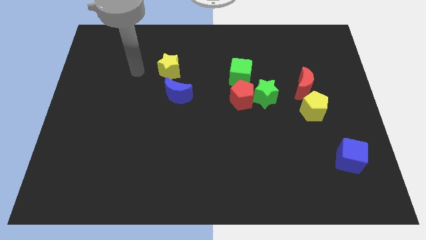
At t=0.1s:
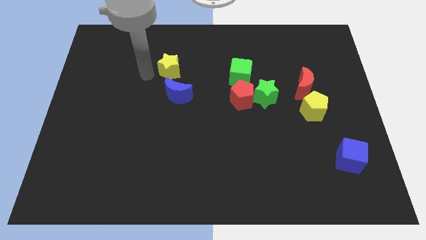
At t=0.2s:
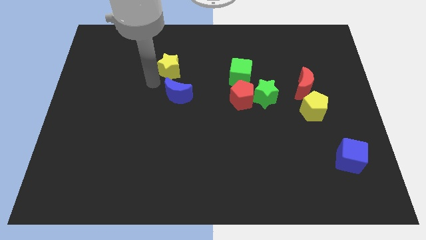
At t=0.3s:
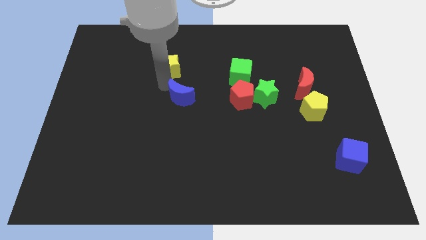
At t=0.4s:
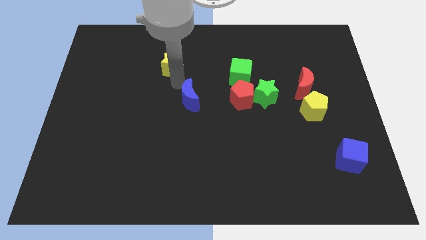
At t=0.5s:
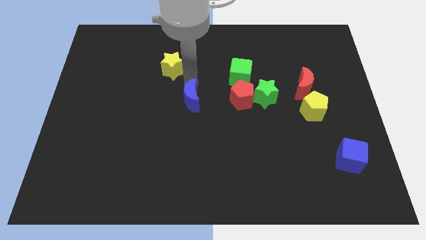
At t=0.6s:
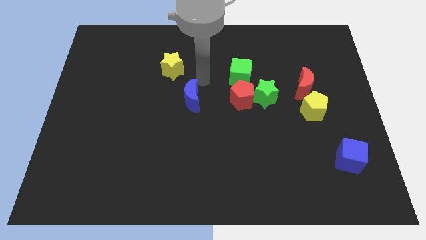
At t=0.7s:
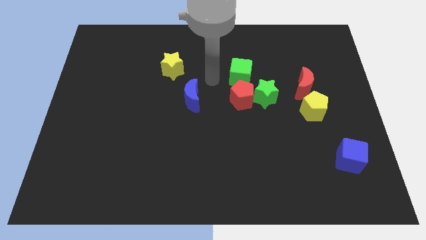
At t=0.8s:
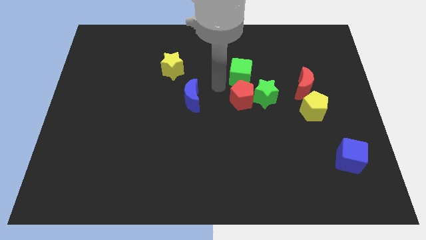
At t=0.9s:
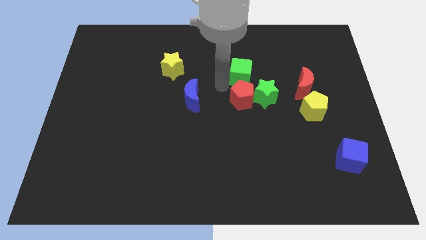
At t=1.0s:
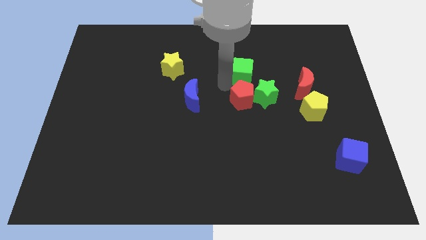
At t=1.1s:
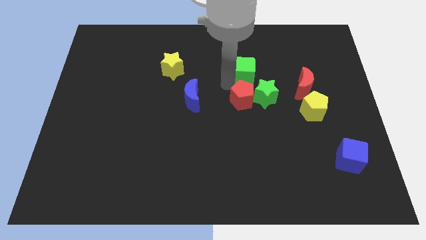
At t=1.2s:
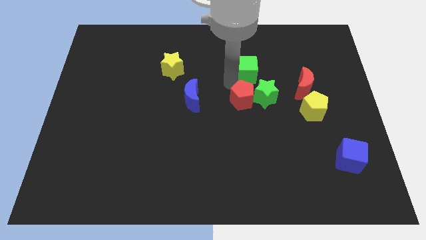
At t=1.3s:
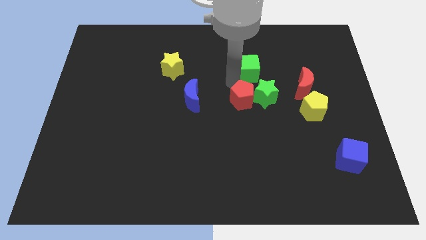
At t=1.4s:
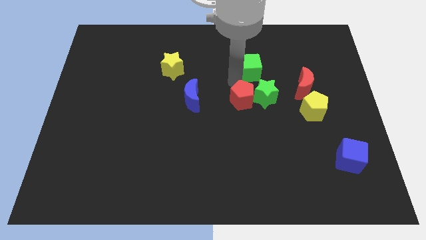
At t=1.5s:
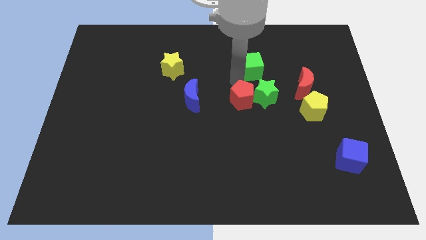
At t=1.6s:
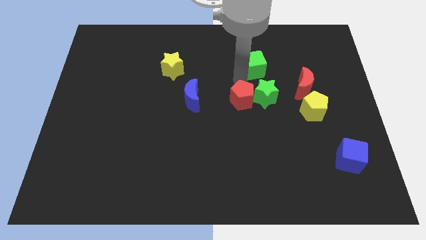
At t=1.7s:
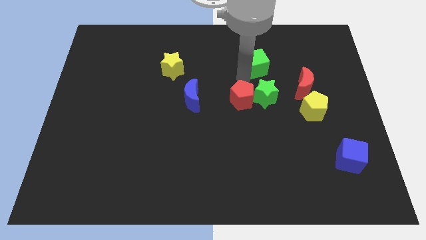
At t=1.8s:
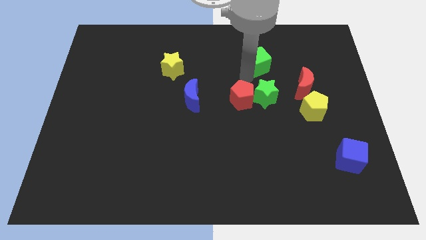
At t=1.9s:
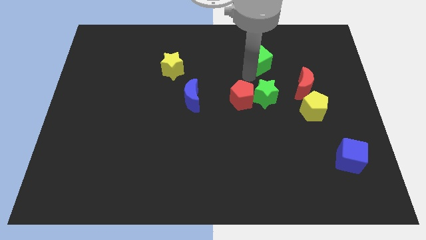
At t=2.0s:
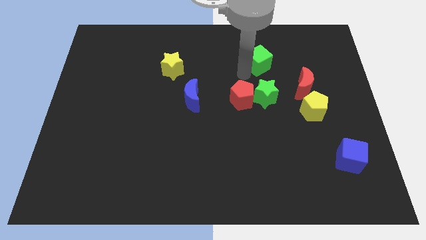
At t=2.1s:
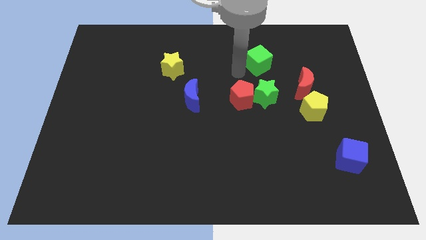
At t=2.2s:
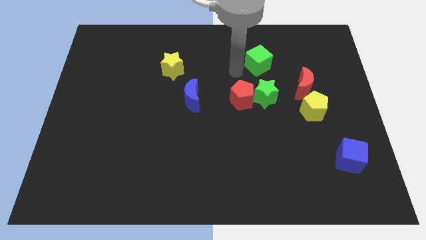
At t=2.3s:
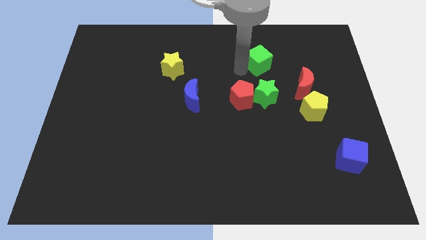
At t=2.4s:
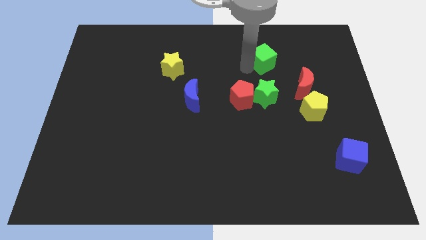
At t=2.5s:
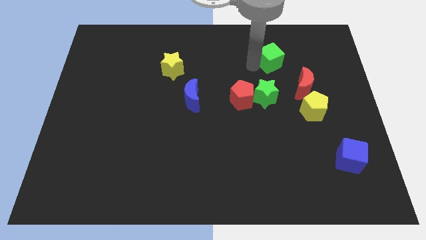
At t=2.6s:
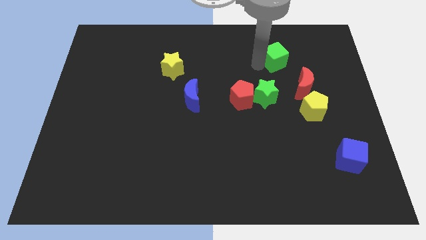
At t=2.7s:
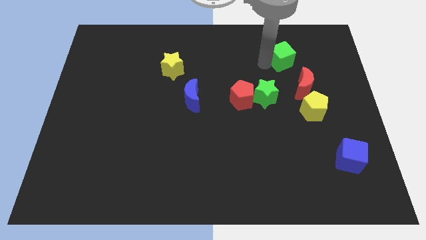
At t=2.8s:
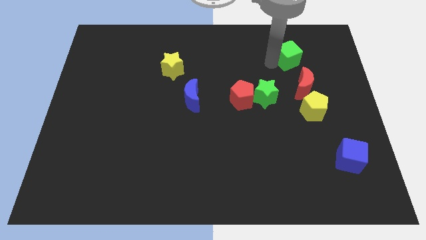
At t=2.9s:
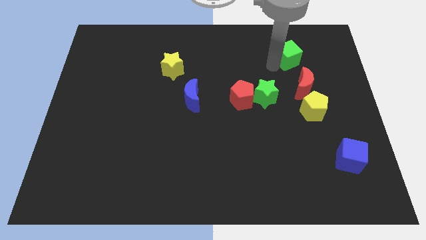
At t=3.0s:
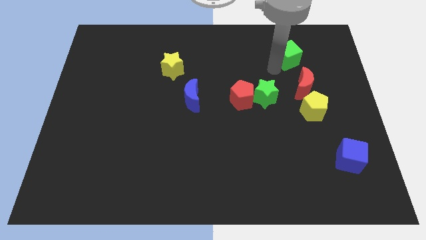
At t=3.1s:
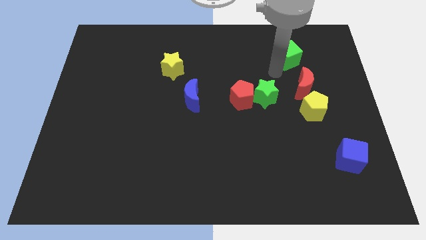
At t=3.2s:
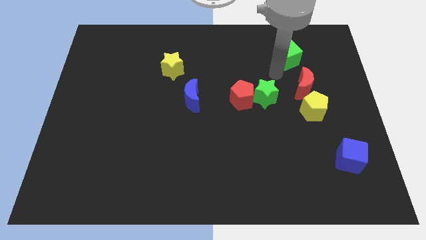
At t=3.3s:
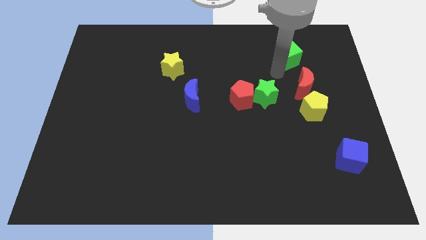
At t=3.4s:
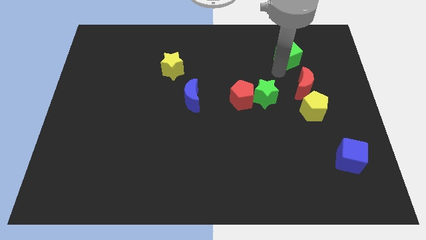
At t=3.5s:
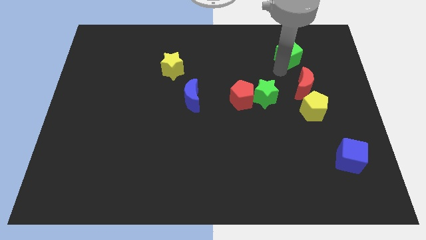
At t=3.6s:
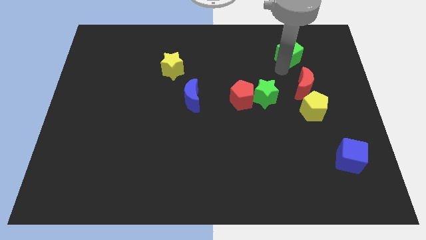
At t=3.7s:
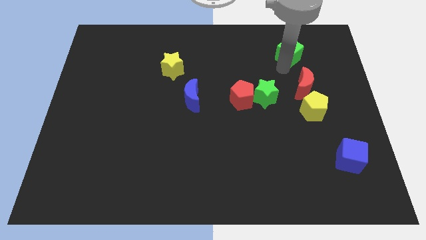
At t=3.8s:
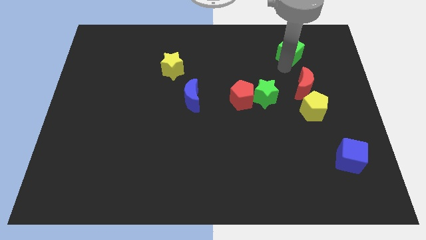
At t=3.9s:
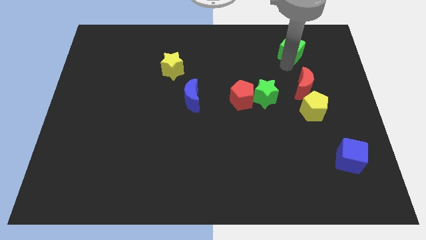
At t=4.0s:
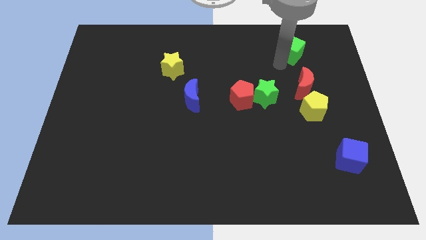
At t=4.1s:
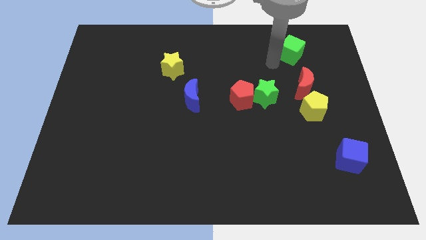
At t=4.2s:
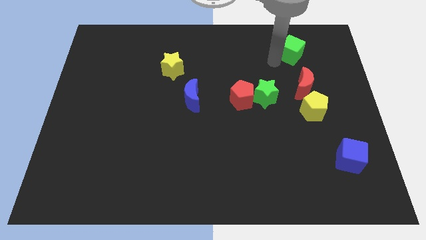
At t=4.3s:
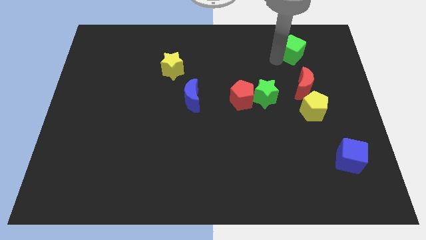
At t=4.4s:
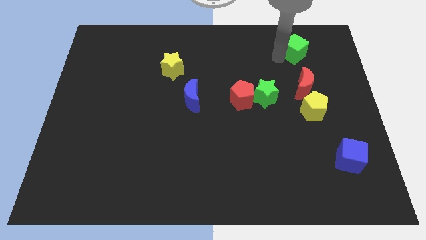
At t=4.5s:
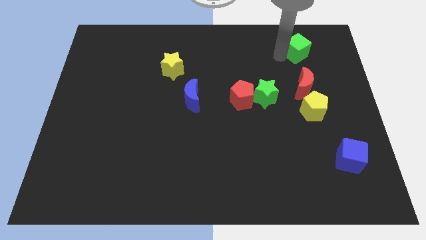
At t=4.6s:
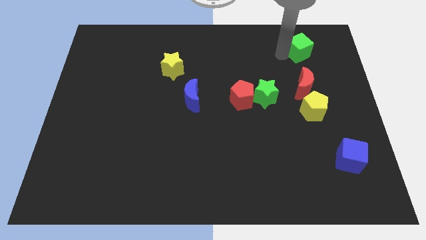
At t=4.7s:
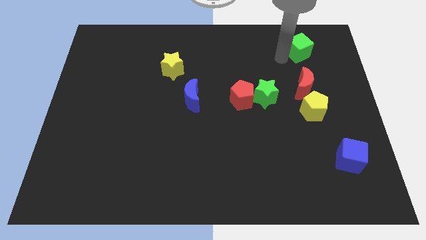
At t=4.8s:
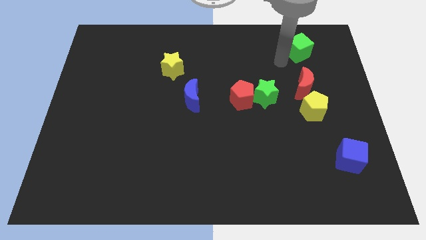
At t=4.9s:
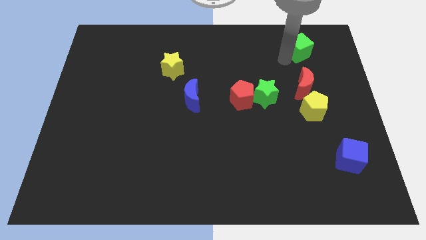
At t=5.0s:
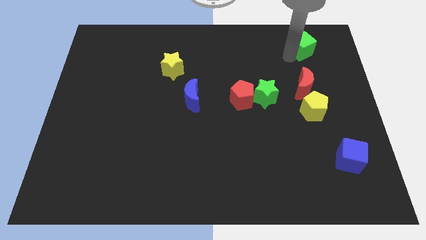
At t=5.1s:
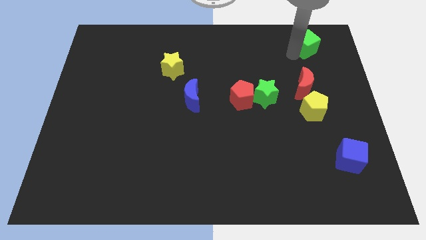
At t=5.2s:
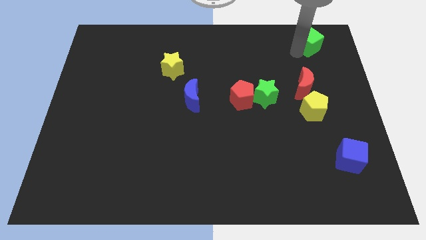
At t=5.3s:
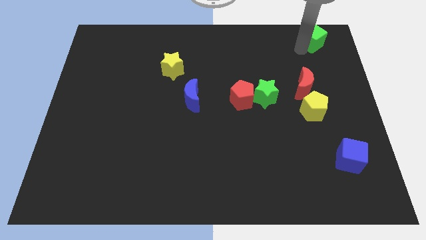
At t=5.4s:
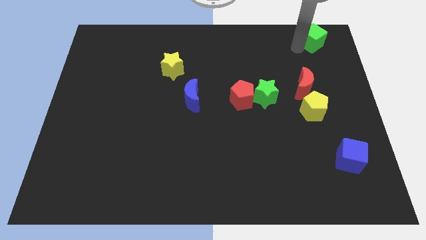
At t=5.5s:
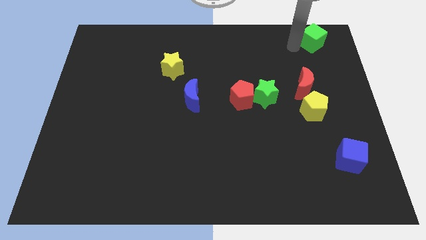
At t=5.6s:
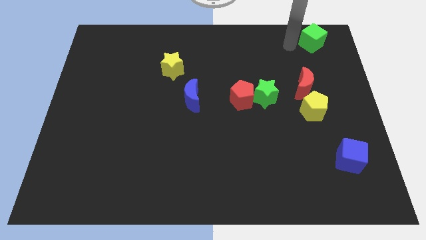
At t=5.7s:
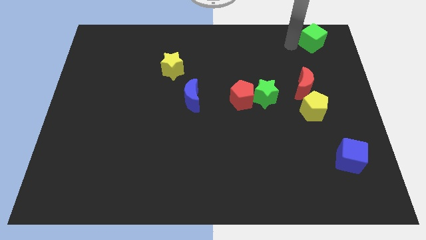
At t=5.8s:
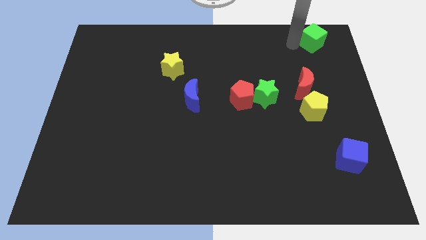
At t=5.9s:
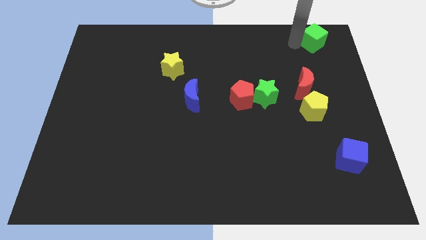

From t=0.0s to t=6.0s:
push the green cube to the top right corner

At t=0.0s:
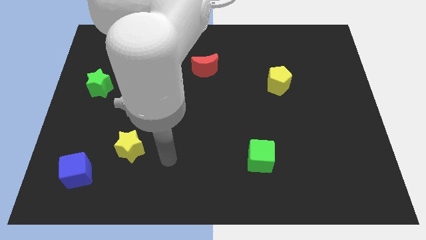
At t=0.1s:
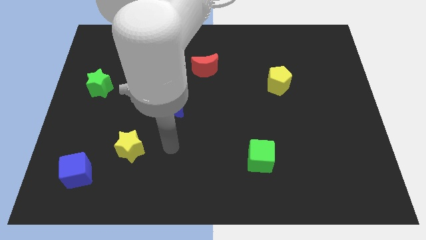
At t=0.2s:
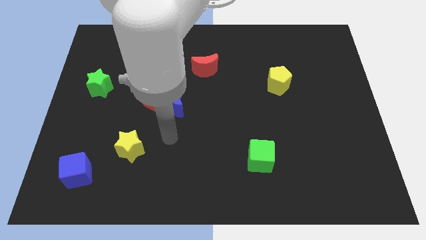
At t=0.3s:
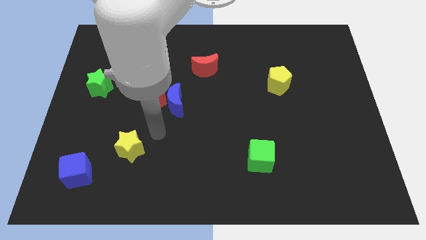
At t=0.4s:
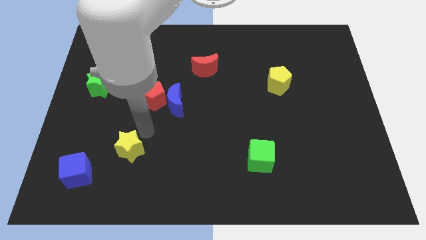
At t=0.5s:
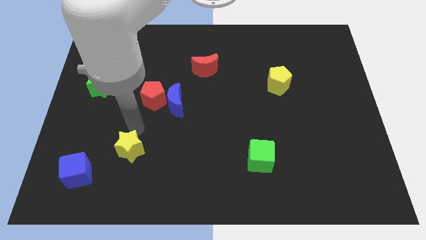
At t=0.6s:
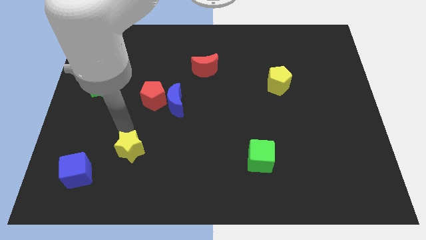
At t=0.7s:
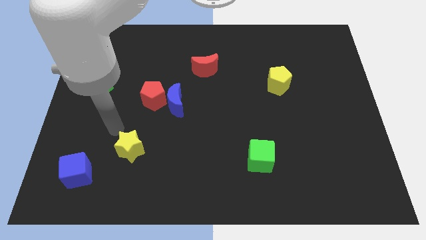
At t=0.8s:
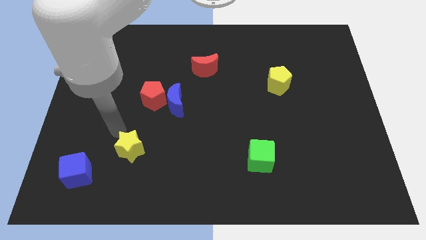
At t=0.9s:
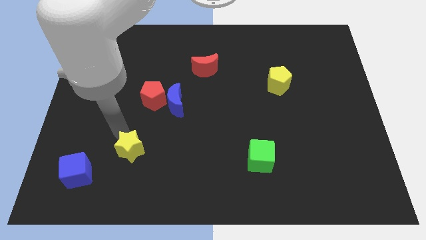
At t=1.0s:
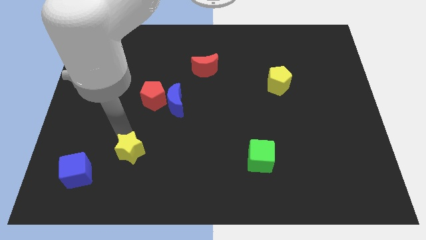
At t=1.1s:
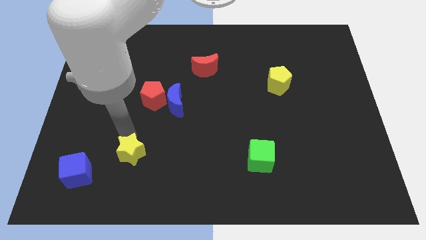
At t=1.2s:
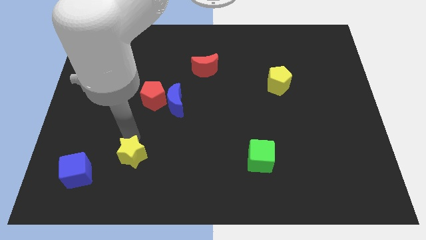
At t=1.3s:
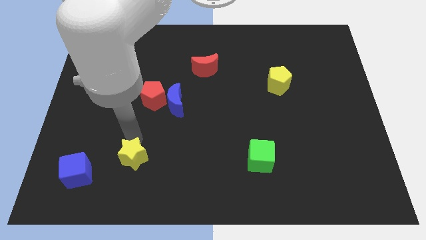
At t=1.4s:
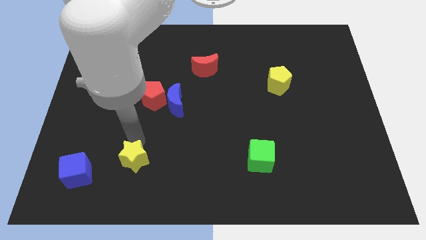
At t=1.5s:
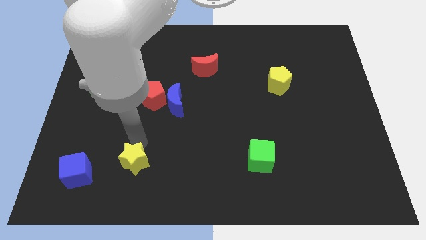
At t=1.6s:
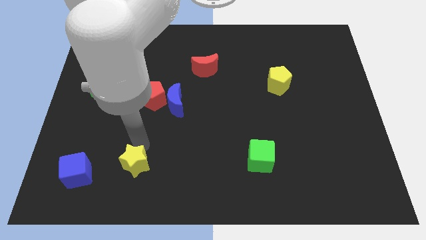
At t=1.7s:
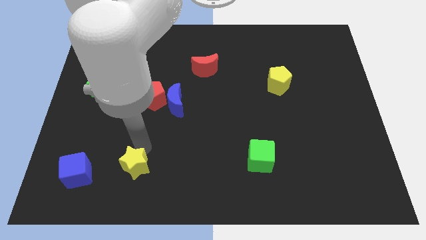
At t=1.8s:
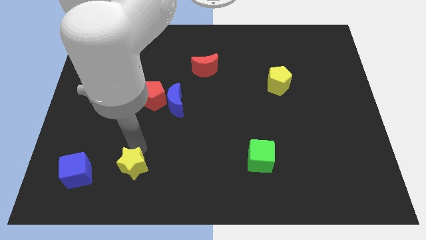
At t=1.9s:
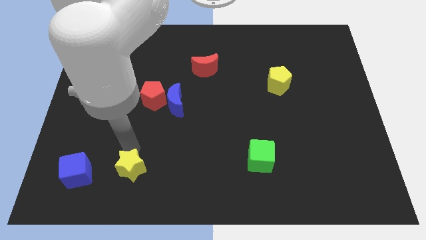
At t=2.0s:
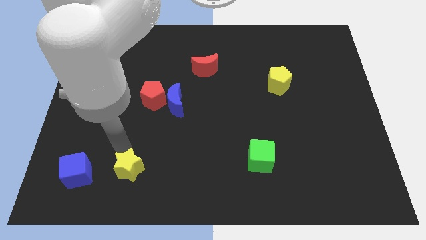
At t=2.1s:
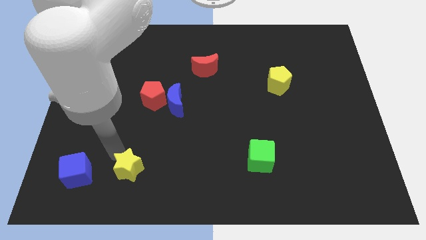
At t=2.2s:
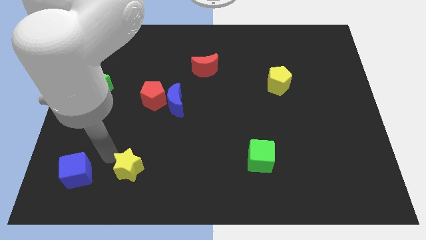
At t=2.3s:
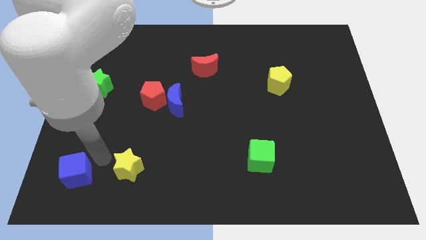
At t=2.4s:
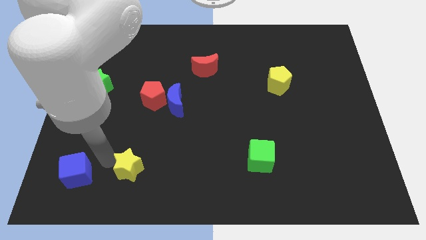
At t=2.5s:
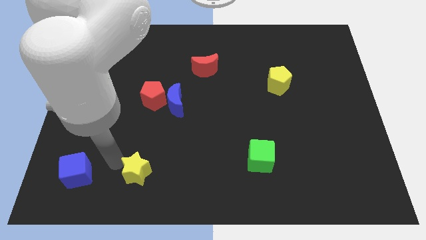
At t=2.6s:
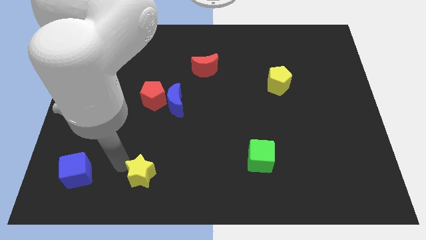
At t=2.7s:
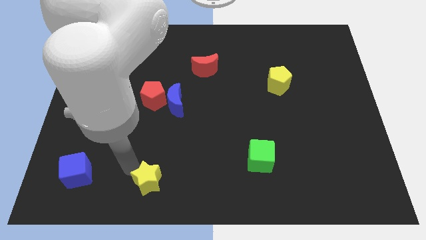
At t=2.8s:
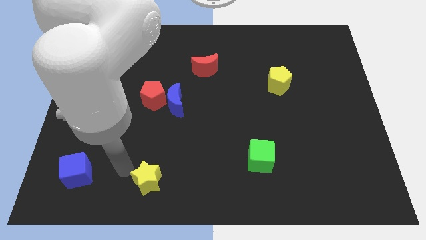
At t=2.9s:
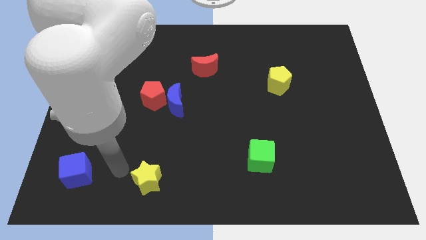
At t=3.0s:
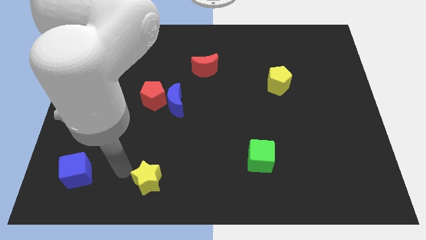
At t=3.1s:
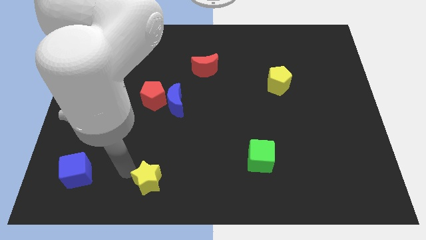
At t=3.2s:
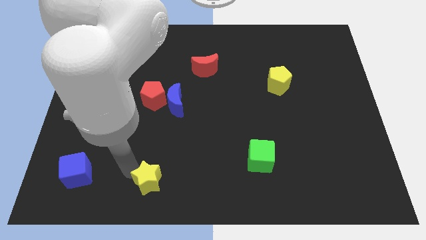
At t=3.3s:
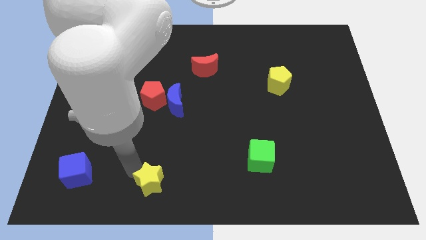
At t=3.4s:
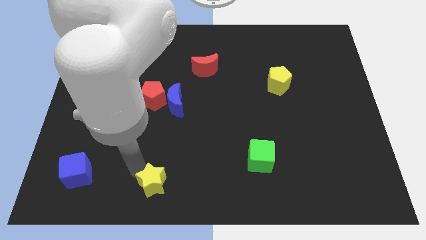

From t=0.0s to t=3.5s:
move the yellow star to the bottom
